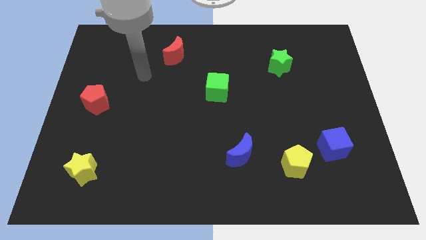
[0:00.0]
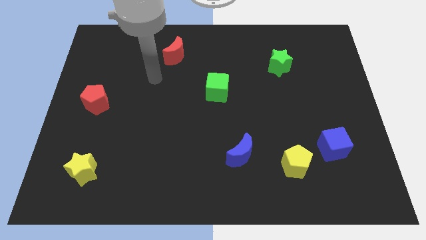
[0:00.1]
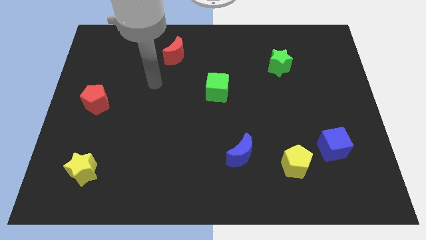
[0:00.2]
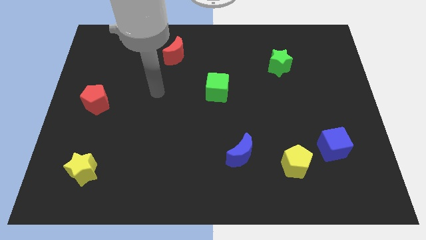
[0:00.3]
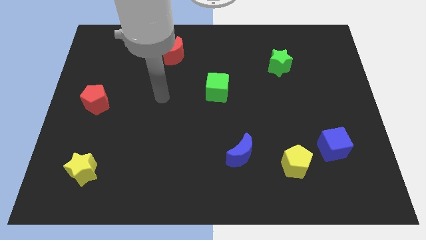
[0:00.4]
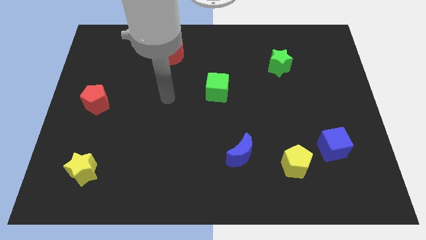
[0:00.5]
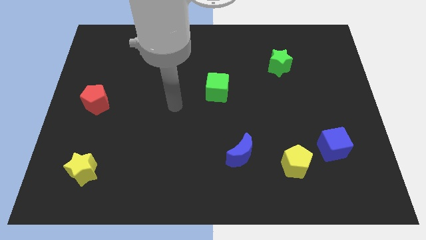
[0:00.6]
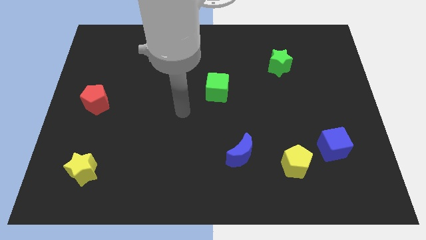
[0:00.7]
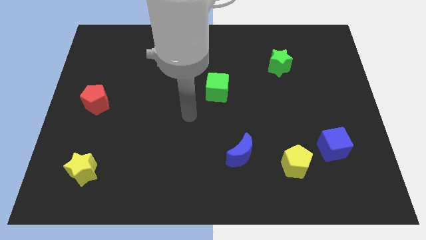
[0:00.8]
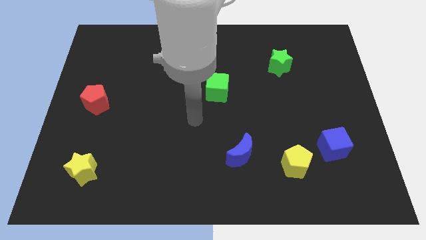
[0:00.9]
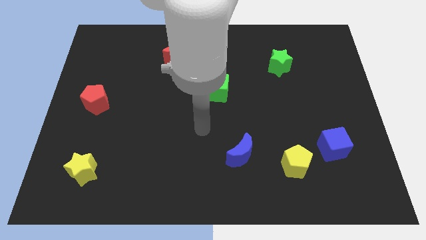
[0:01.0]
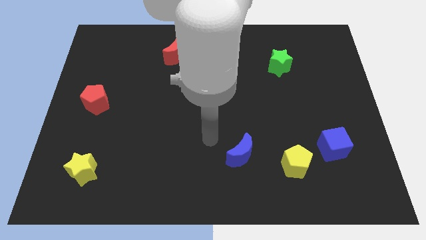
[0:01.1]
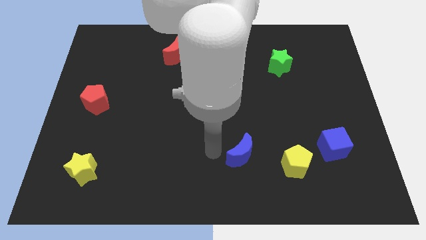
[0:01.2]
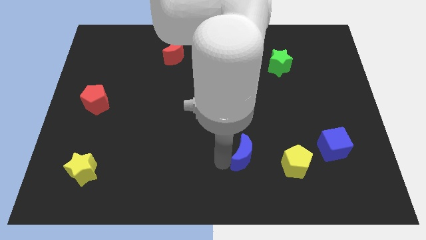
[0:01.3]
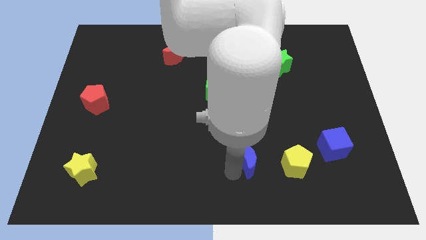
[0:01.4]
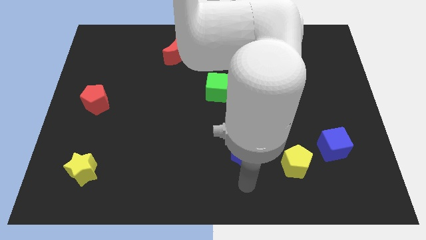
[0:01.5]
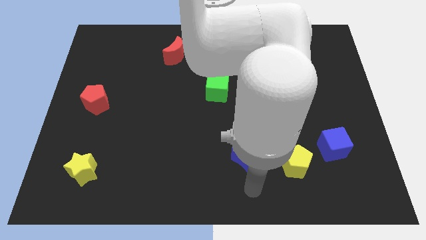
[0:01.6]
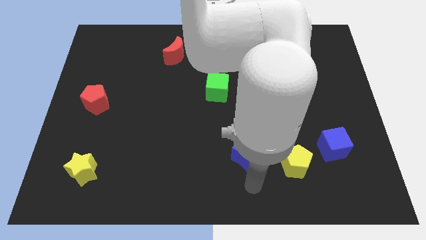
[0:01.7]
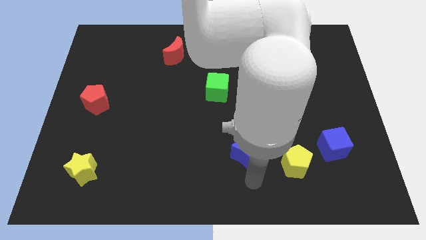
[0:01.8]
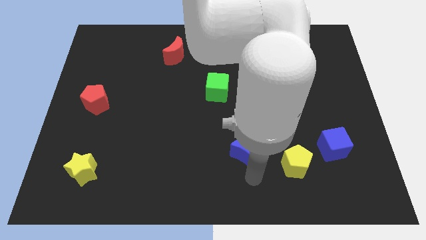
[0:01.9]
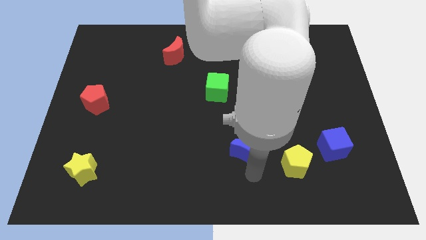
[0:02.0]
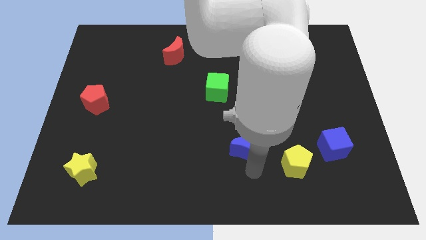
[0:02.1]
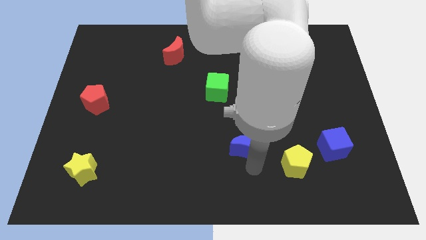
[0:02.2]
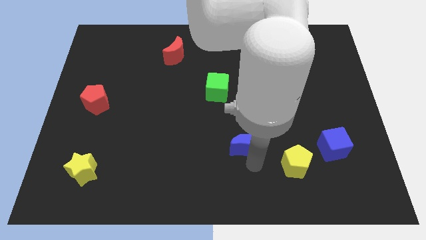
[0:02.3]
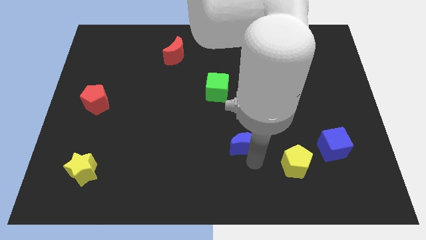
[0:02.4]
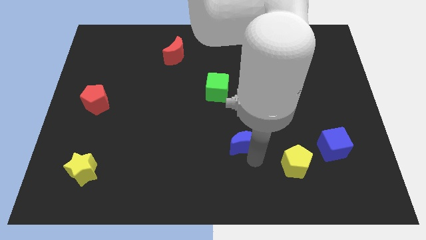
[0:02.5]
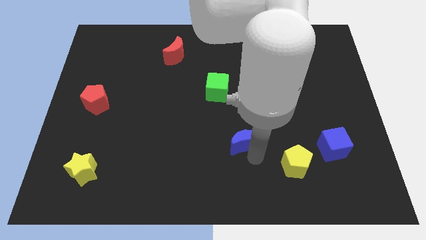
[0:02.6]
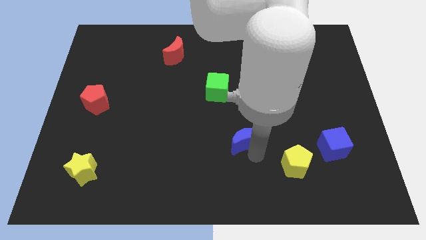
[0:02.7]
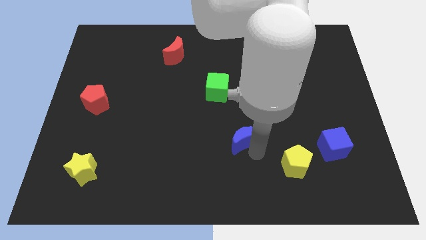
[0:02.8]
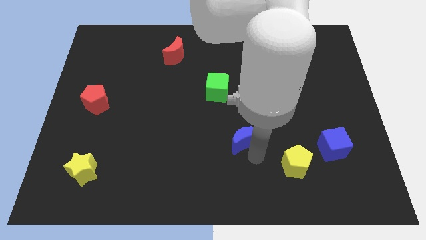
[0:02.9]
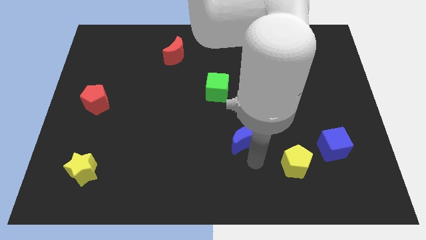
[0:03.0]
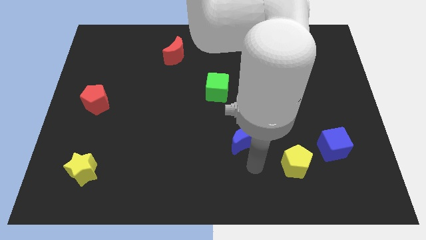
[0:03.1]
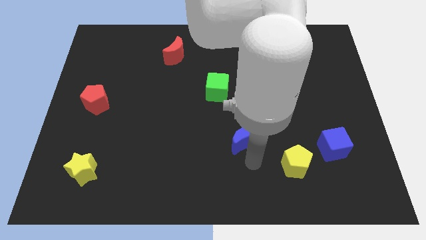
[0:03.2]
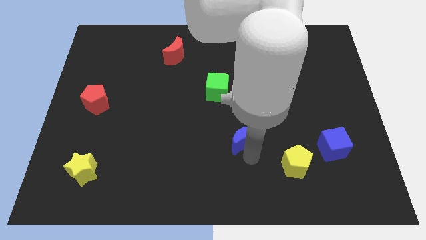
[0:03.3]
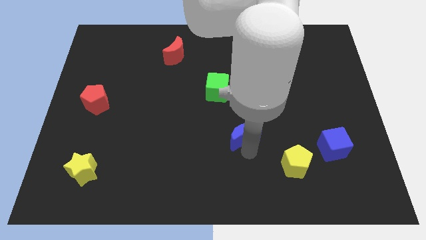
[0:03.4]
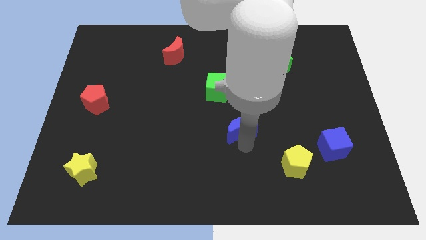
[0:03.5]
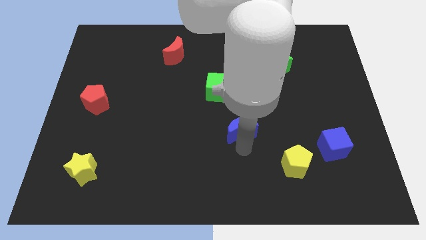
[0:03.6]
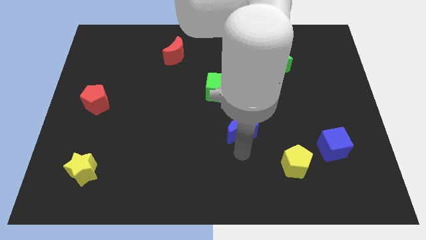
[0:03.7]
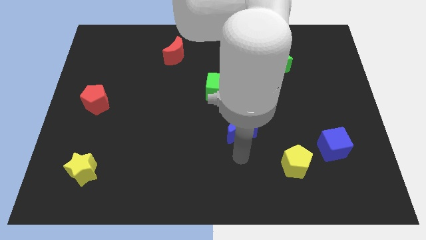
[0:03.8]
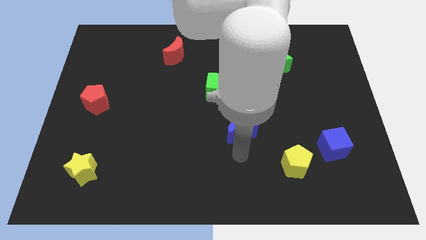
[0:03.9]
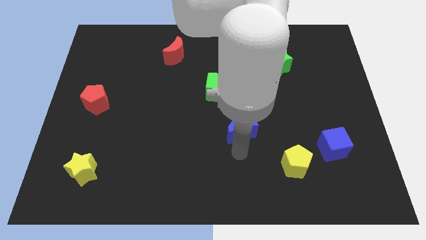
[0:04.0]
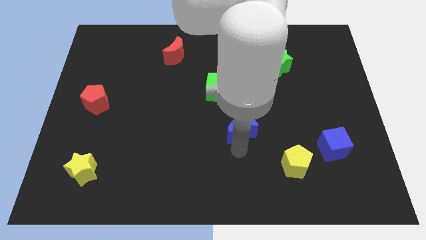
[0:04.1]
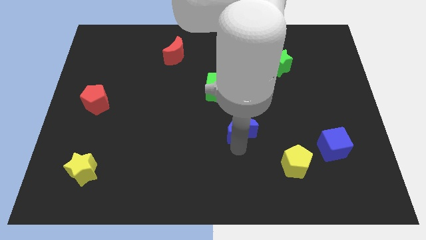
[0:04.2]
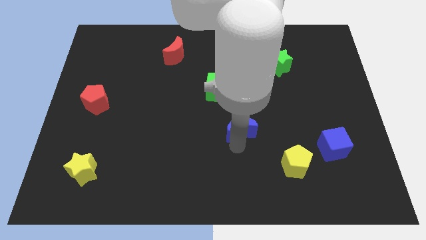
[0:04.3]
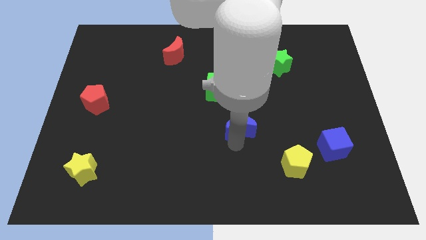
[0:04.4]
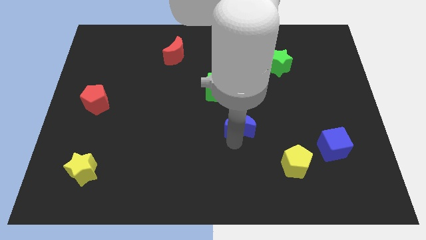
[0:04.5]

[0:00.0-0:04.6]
move the blue moon upwards slightly

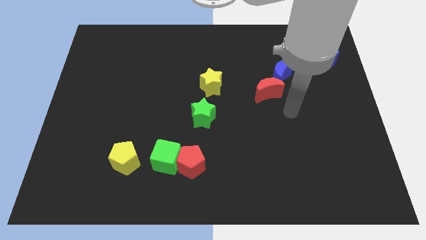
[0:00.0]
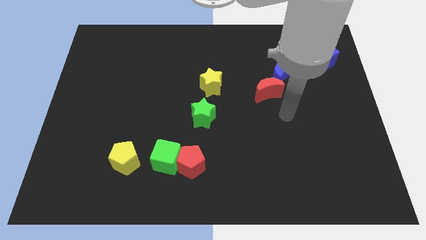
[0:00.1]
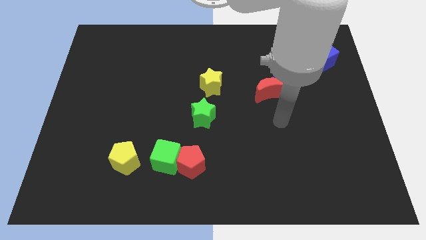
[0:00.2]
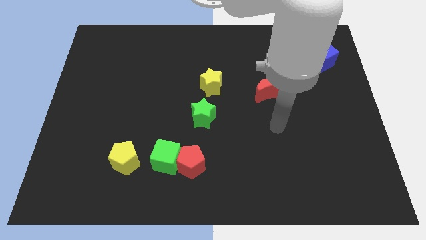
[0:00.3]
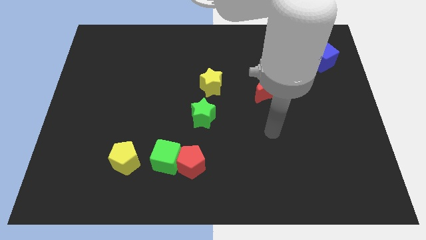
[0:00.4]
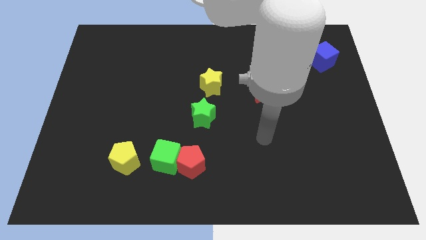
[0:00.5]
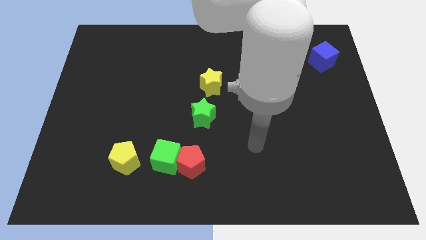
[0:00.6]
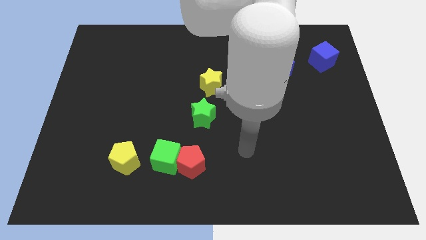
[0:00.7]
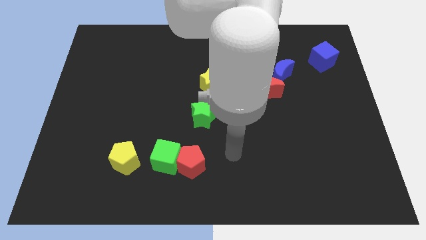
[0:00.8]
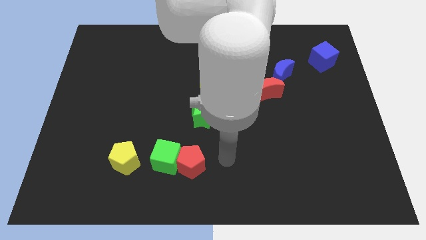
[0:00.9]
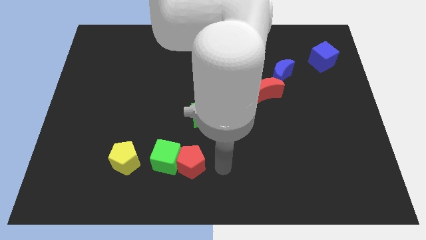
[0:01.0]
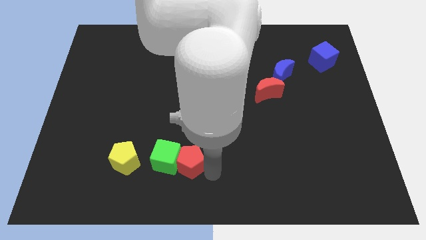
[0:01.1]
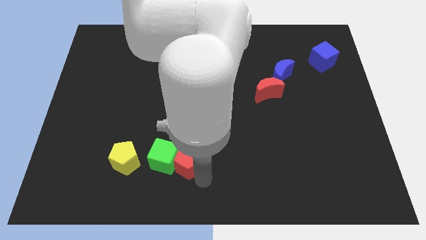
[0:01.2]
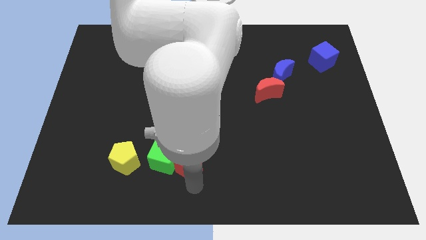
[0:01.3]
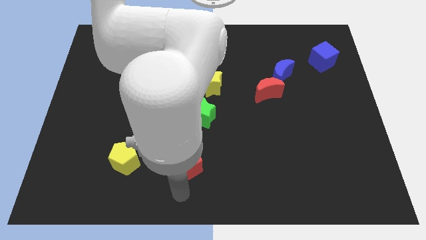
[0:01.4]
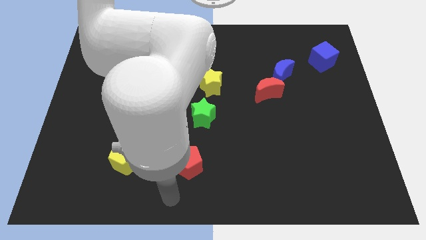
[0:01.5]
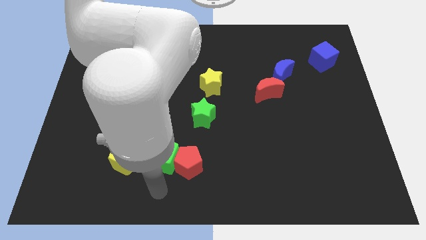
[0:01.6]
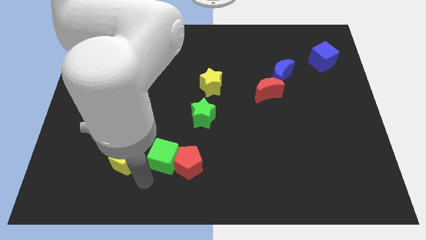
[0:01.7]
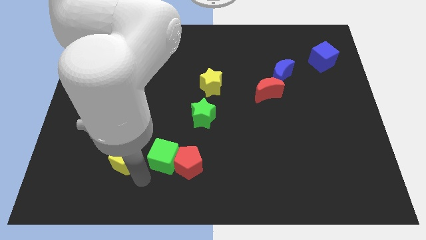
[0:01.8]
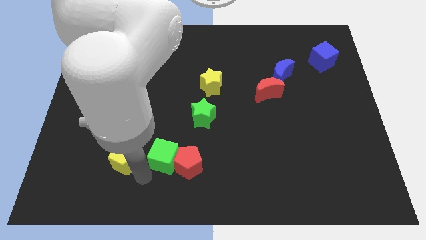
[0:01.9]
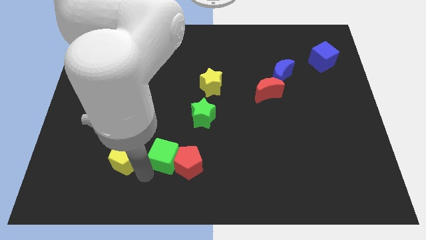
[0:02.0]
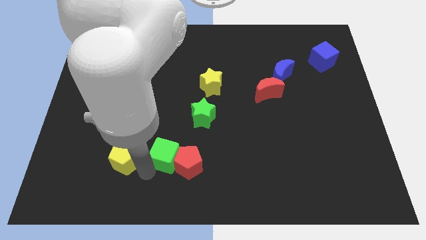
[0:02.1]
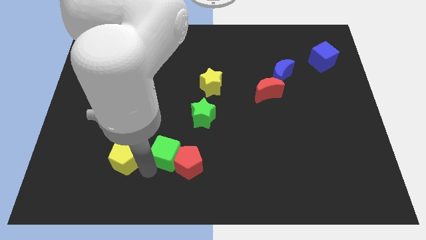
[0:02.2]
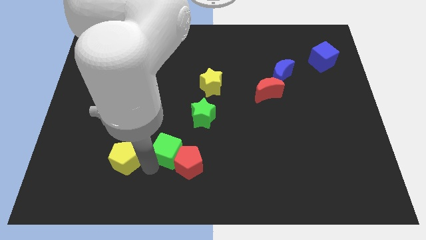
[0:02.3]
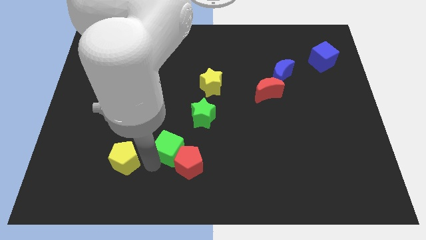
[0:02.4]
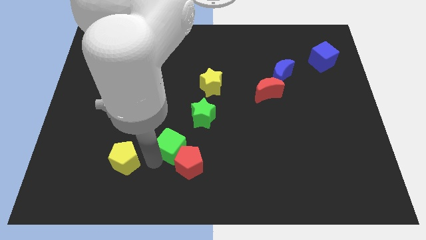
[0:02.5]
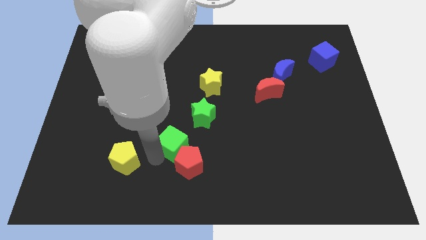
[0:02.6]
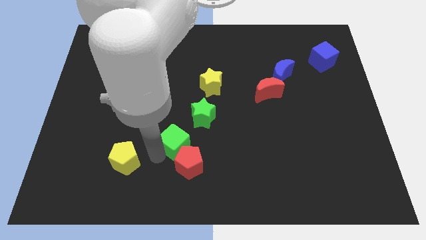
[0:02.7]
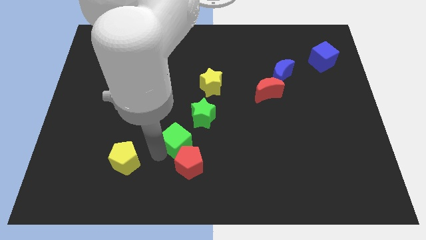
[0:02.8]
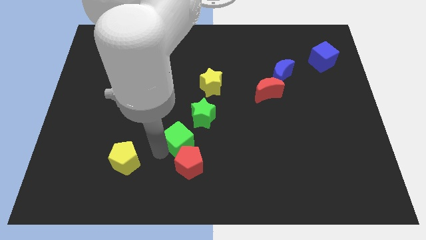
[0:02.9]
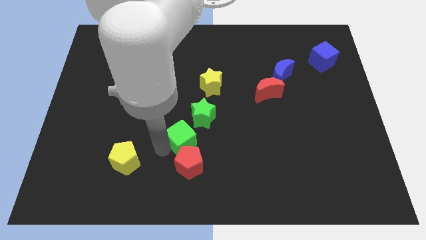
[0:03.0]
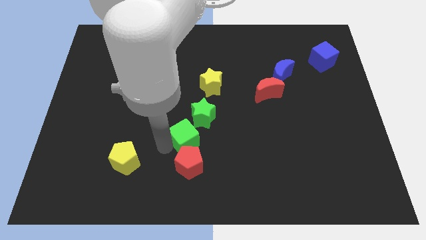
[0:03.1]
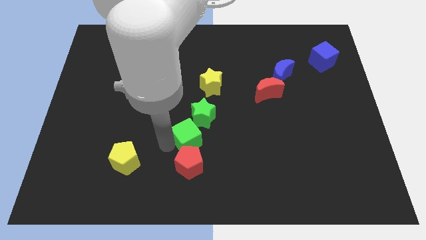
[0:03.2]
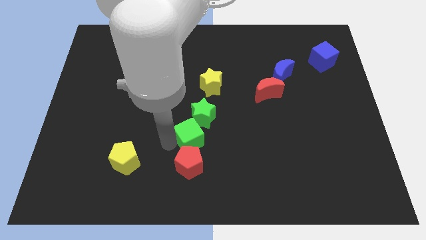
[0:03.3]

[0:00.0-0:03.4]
push the green cube somewhat up and to the right diagonally
